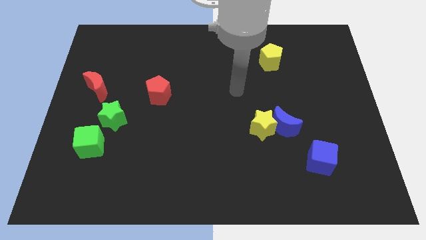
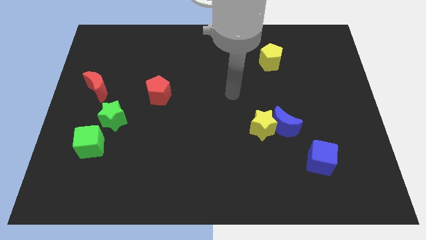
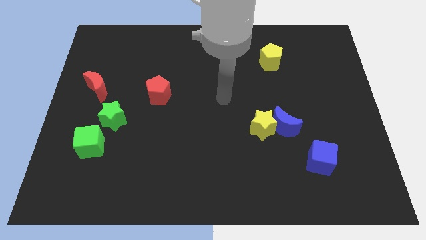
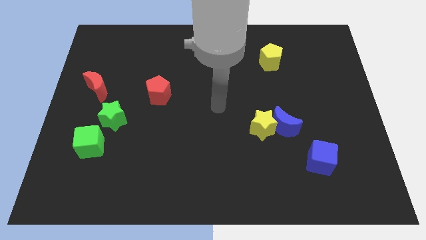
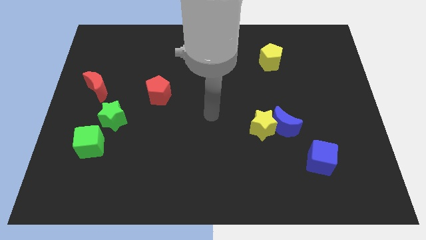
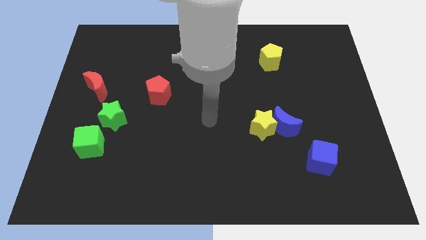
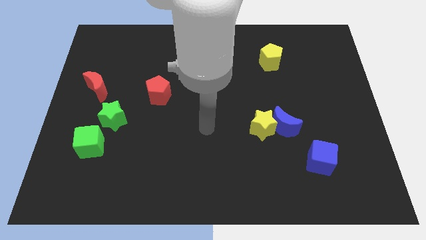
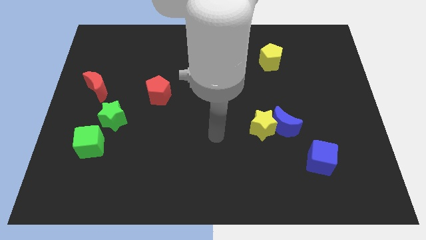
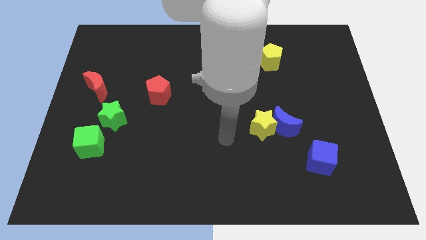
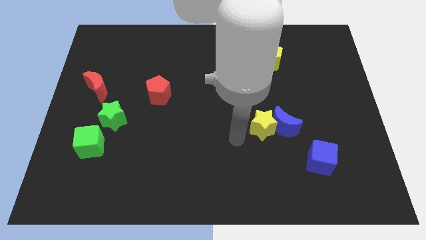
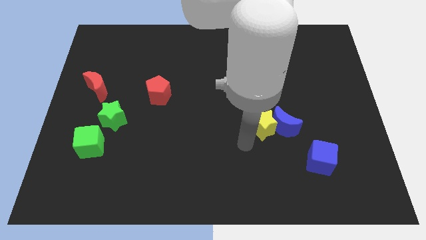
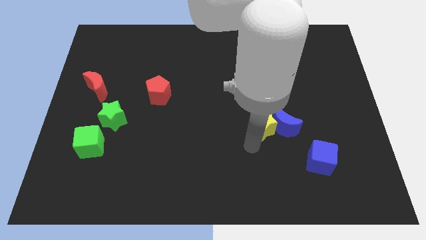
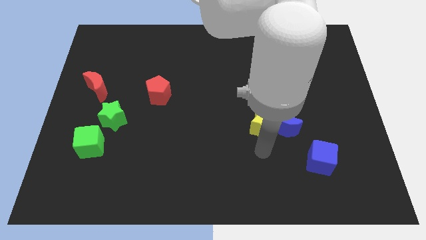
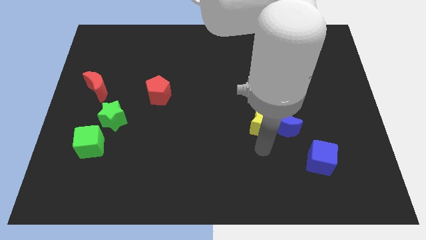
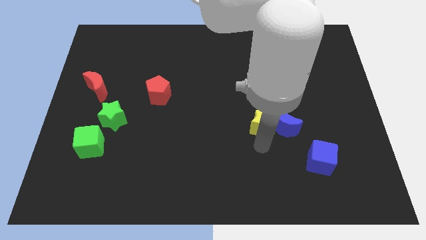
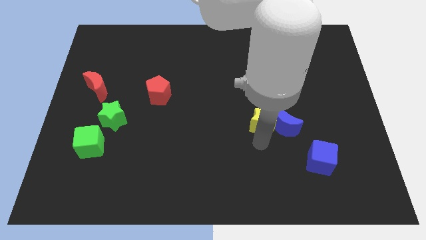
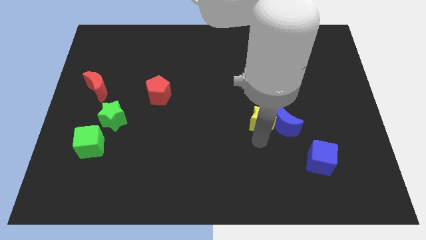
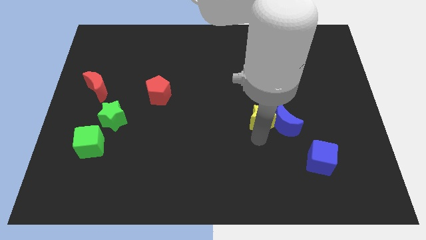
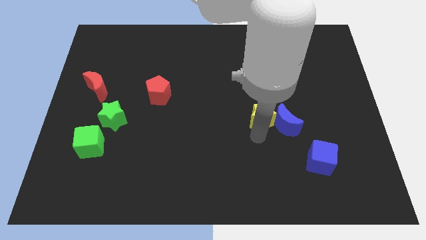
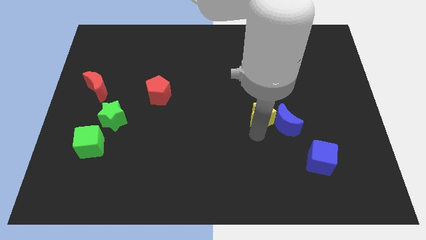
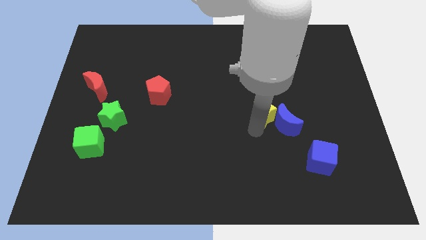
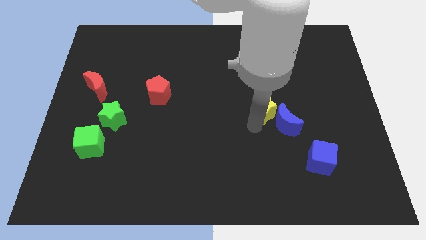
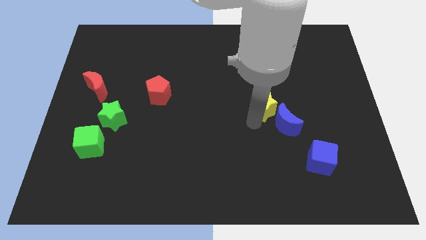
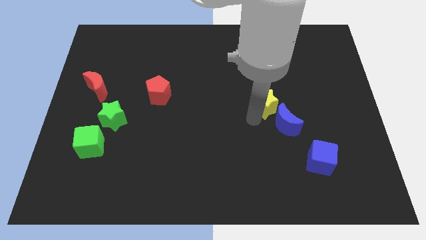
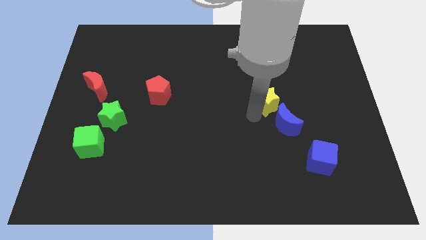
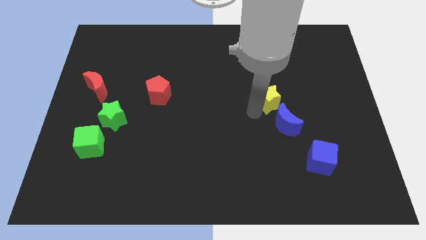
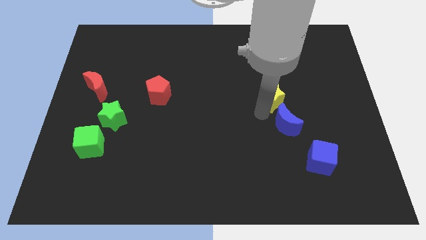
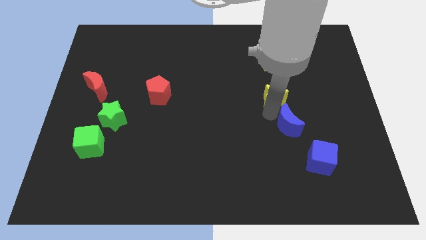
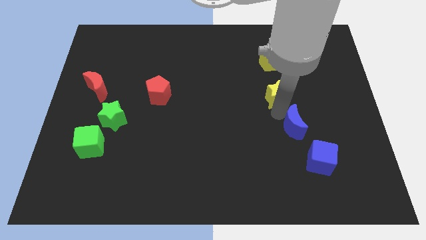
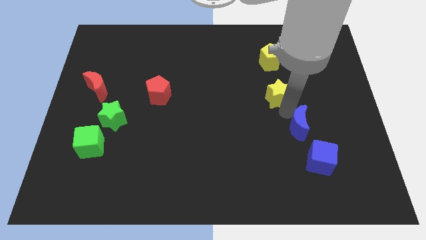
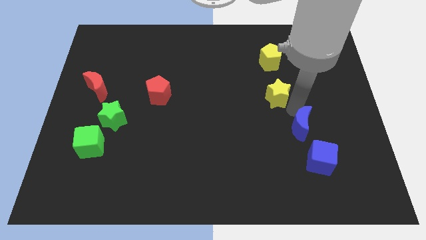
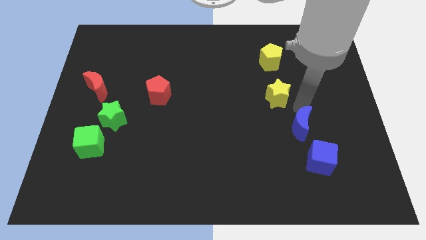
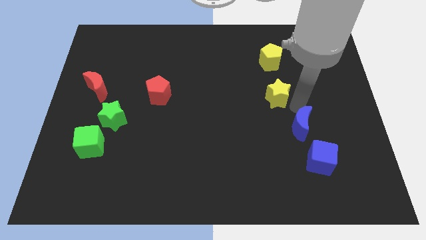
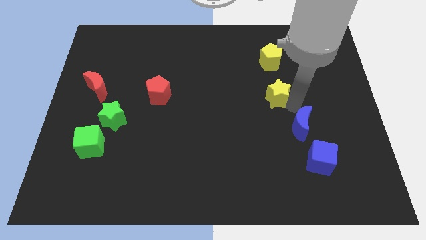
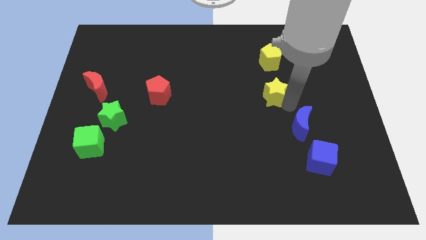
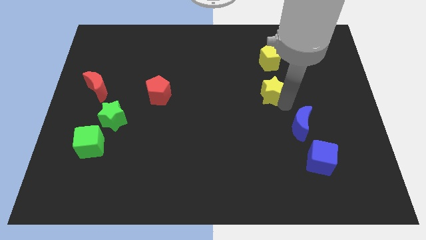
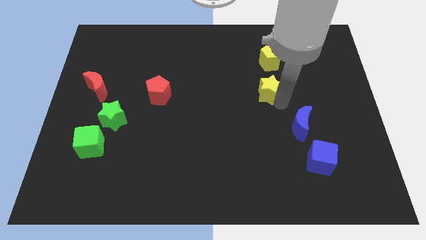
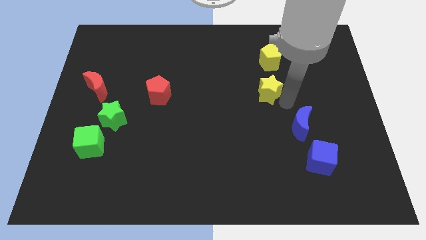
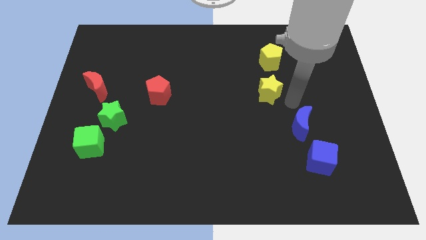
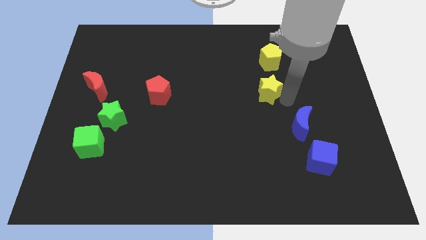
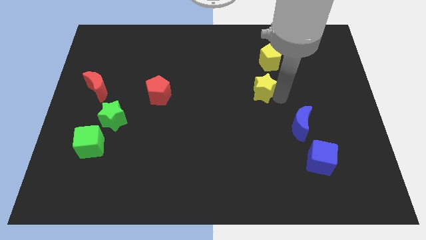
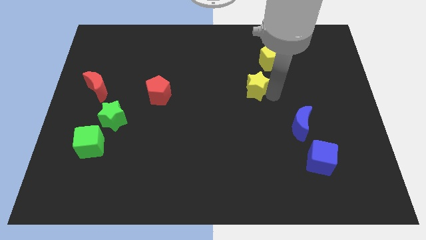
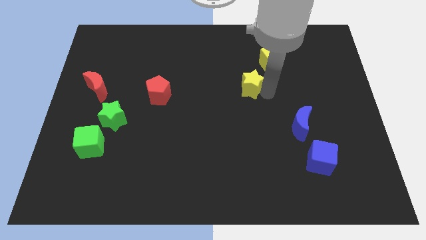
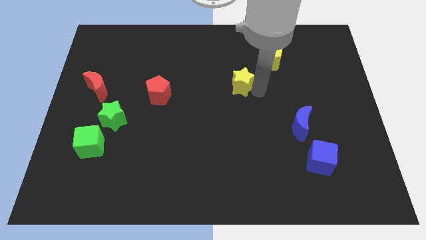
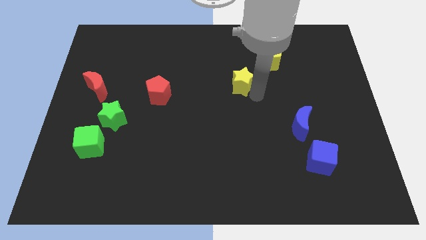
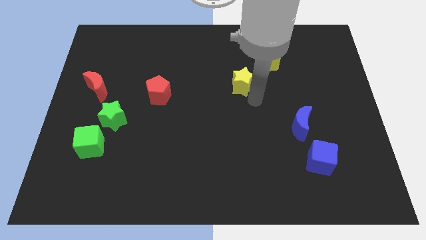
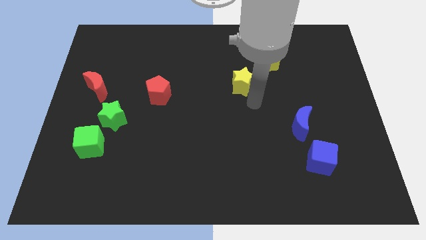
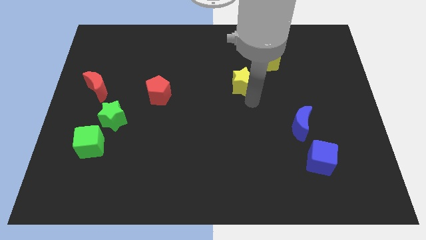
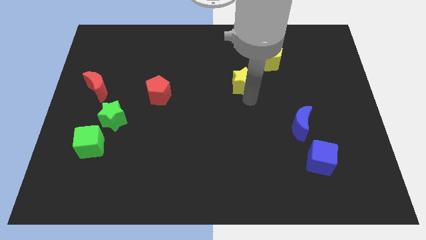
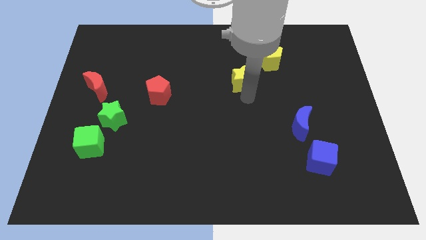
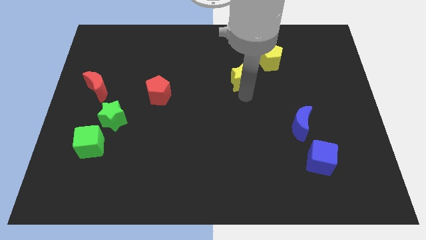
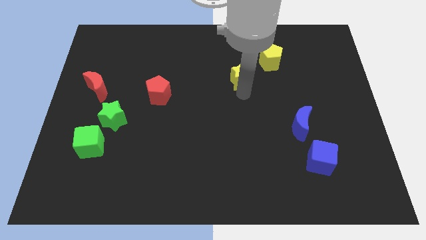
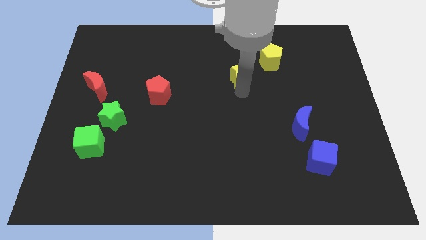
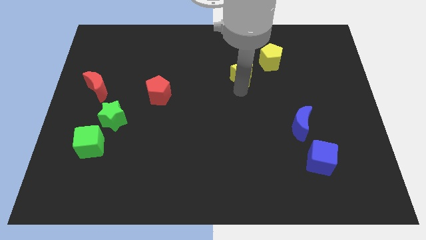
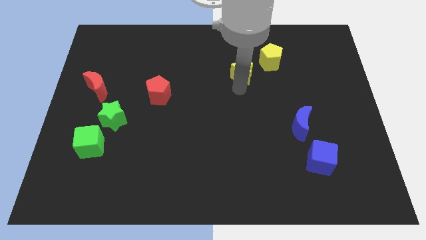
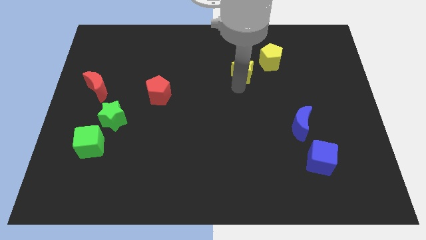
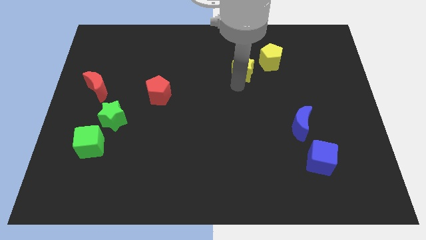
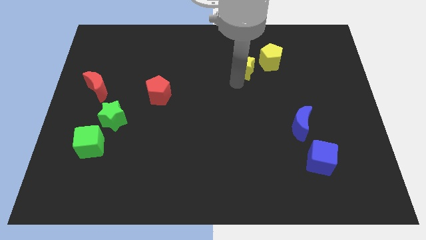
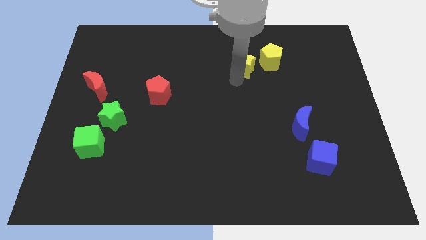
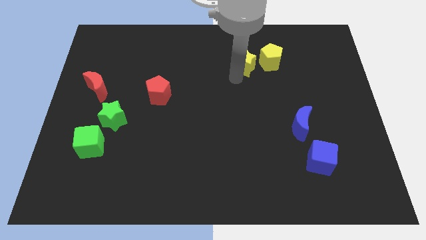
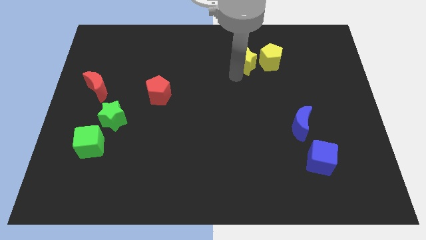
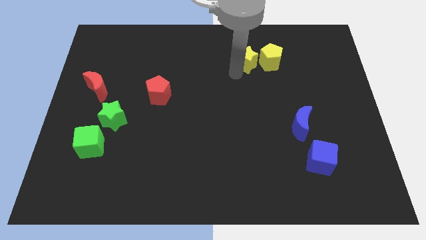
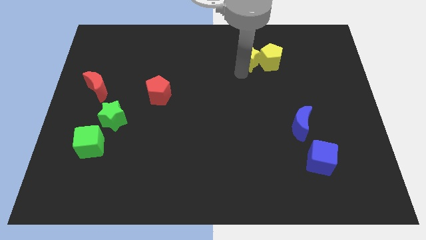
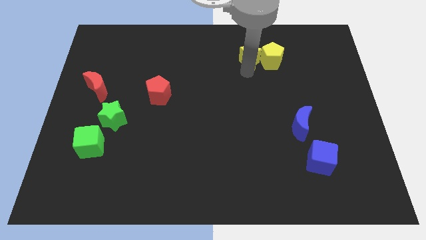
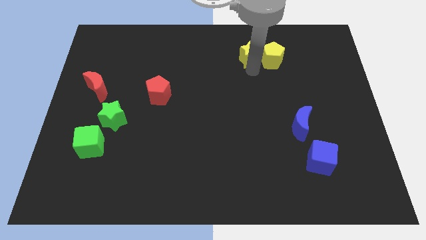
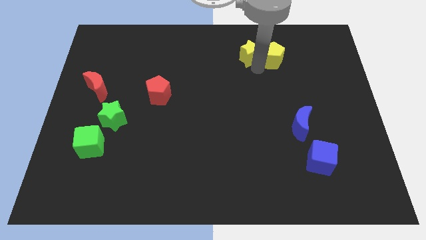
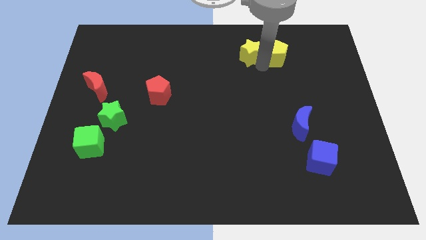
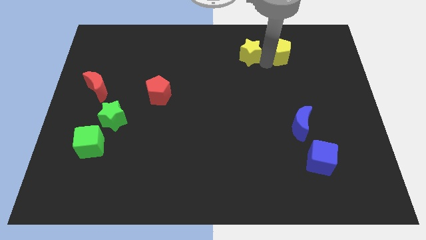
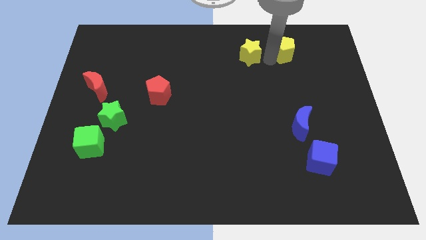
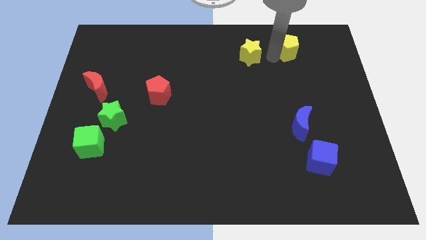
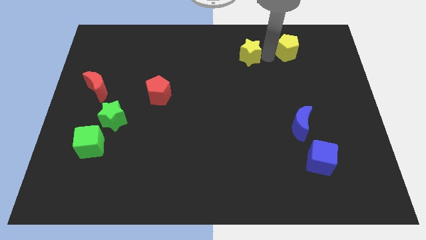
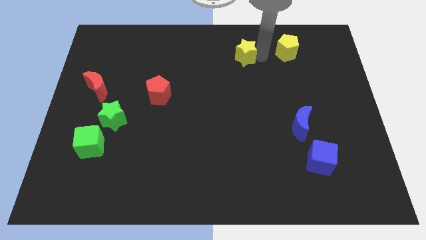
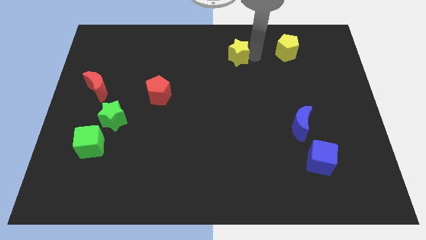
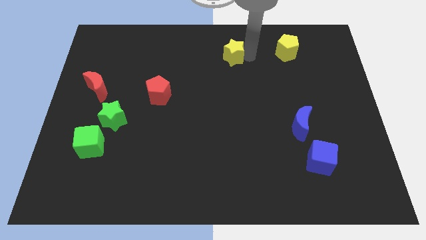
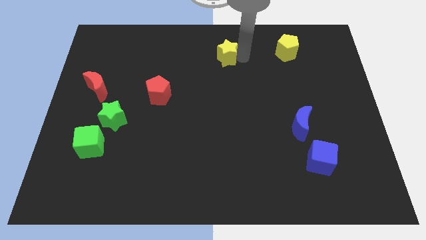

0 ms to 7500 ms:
slide the yellow star to the towards your base
